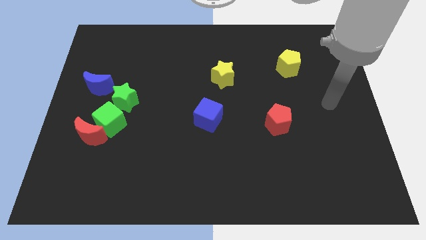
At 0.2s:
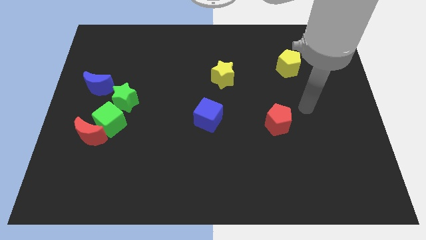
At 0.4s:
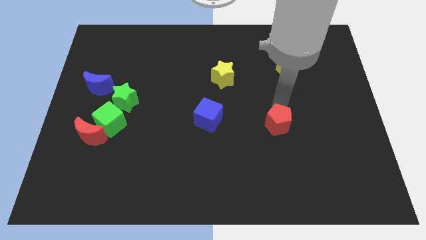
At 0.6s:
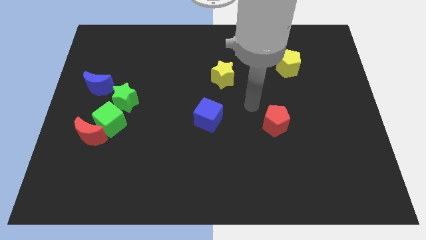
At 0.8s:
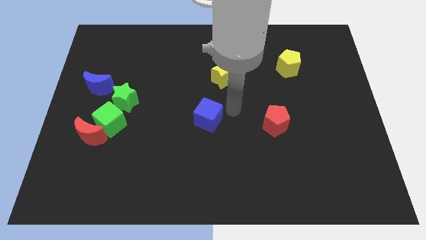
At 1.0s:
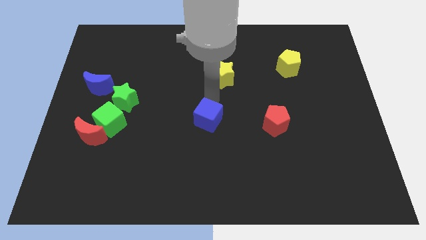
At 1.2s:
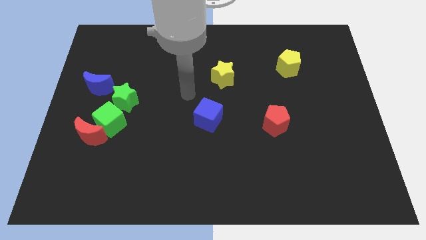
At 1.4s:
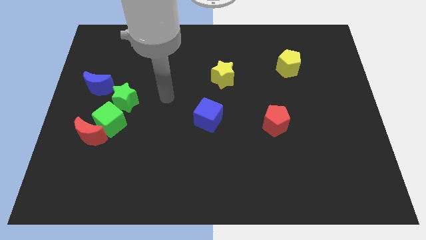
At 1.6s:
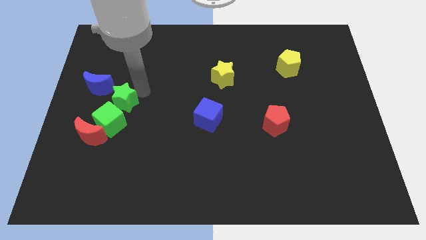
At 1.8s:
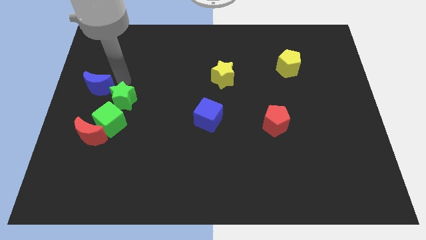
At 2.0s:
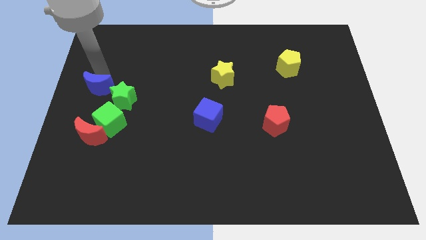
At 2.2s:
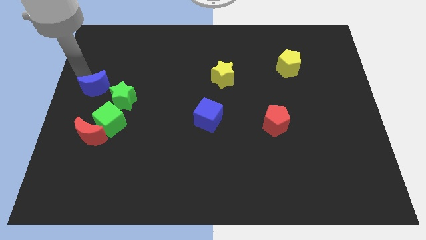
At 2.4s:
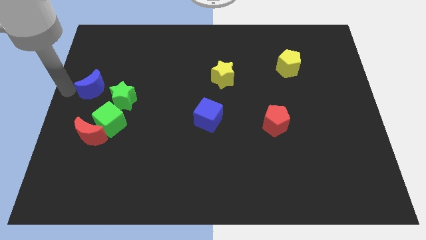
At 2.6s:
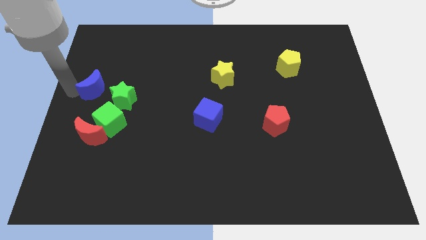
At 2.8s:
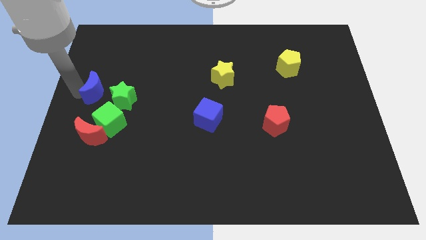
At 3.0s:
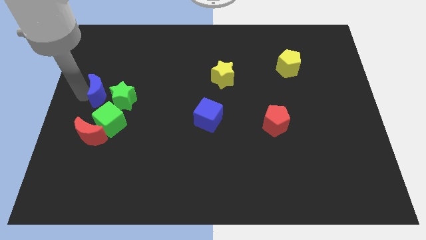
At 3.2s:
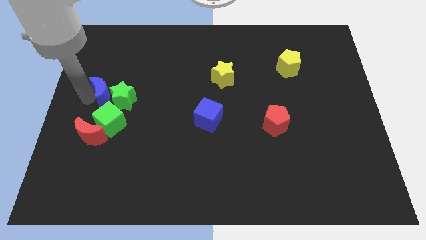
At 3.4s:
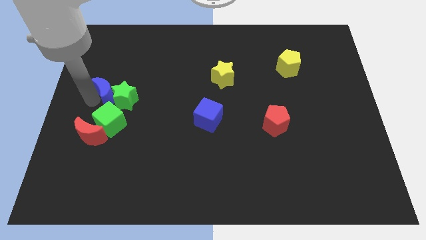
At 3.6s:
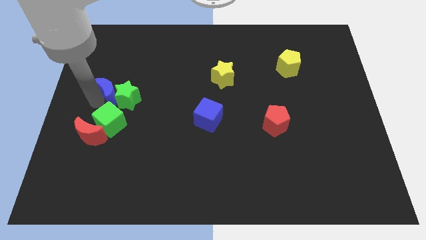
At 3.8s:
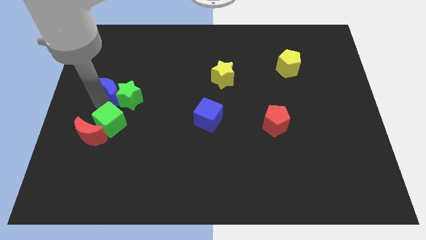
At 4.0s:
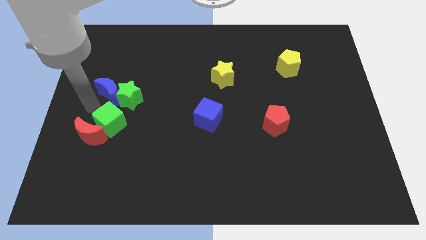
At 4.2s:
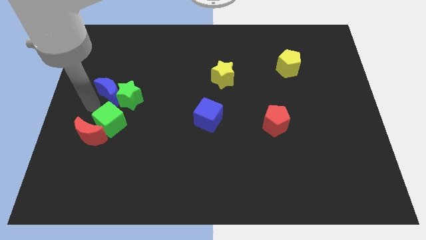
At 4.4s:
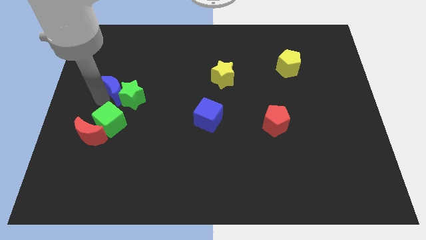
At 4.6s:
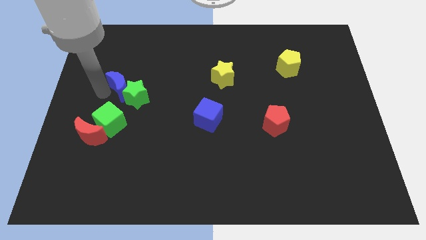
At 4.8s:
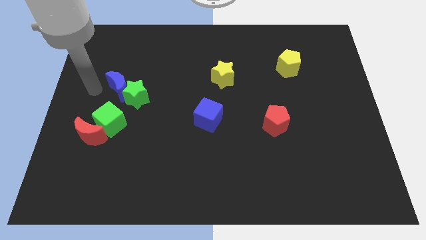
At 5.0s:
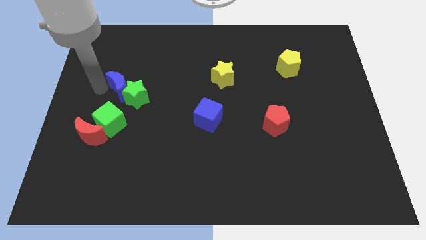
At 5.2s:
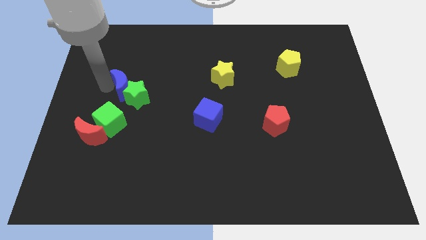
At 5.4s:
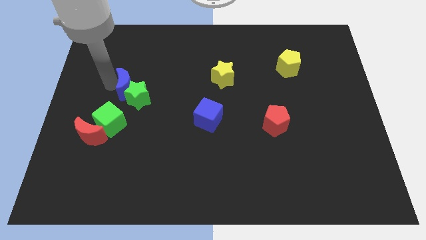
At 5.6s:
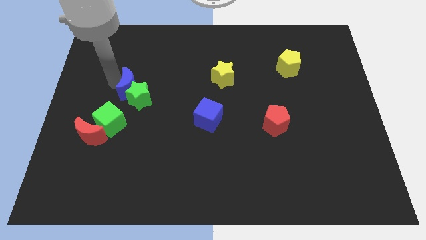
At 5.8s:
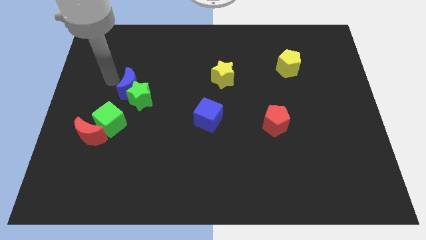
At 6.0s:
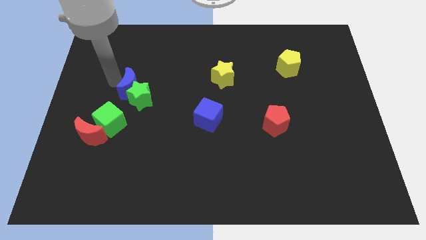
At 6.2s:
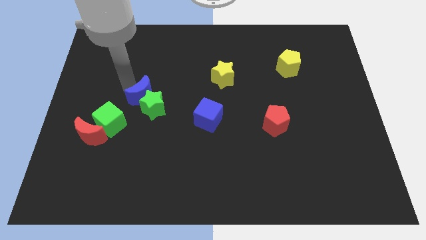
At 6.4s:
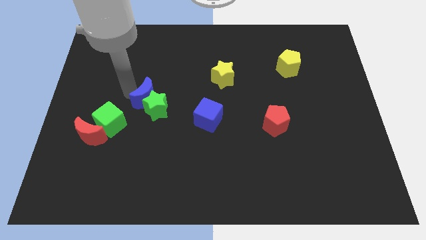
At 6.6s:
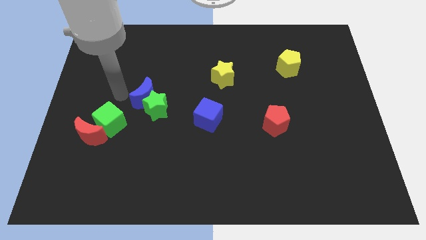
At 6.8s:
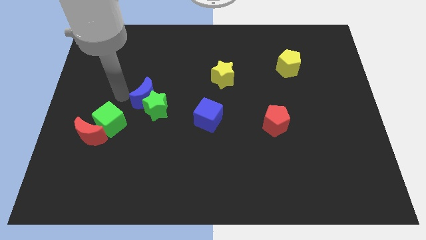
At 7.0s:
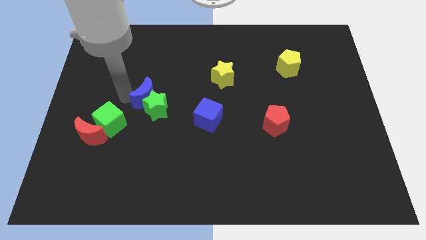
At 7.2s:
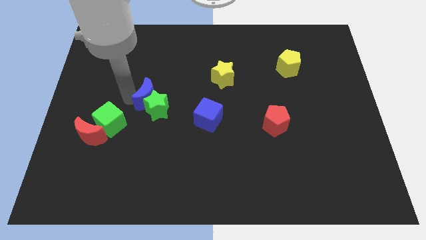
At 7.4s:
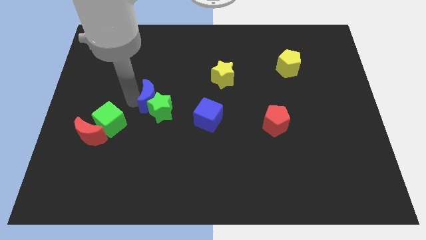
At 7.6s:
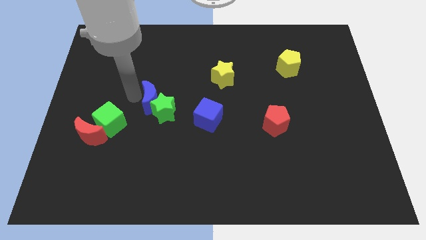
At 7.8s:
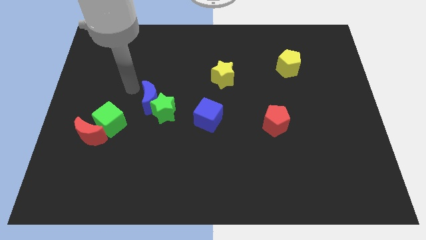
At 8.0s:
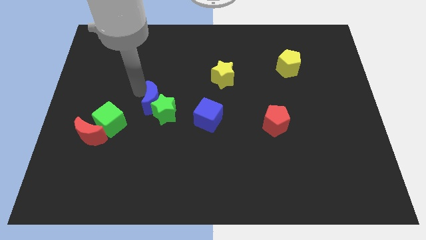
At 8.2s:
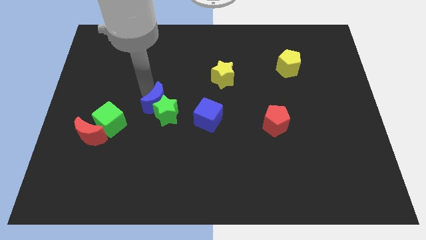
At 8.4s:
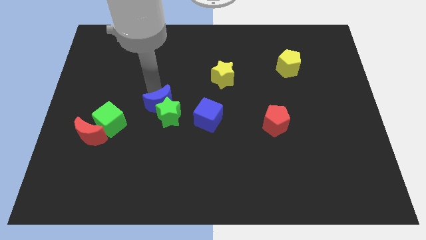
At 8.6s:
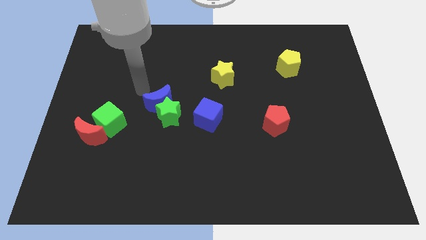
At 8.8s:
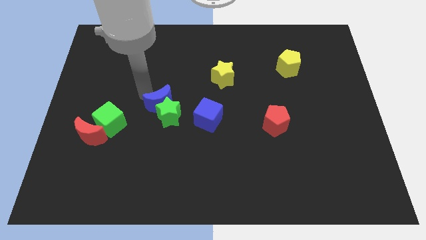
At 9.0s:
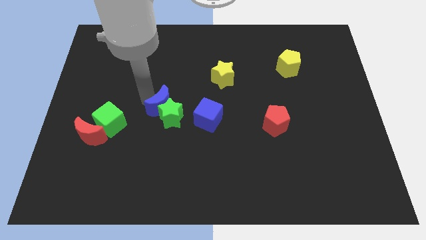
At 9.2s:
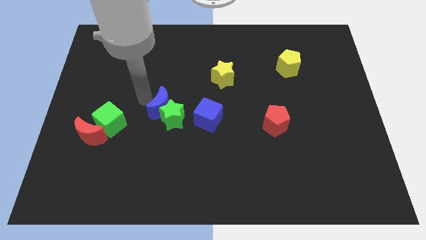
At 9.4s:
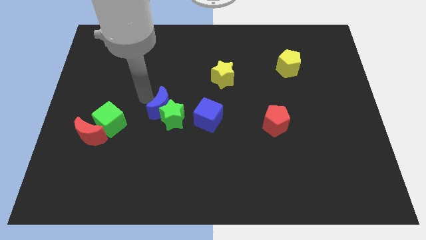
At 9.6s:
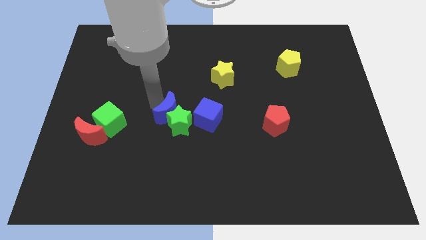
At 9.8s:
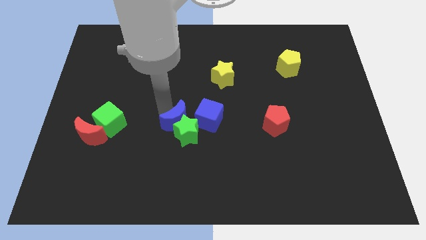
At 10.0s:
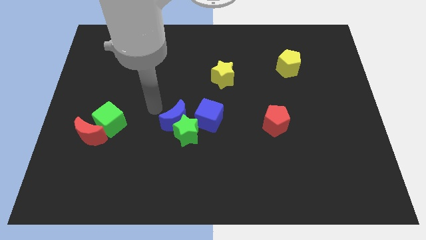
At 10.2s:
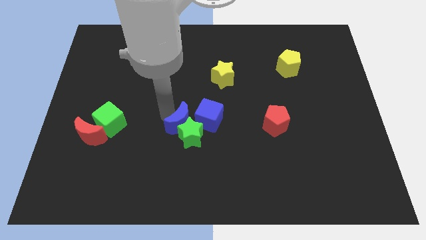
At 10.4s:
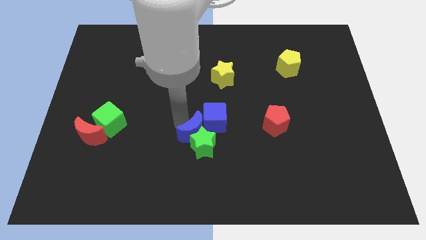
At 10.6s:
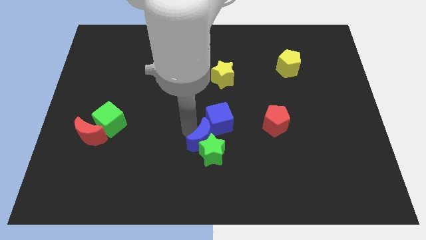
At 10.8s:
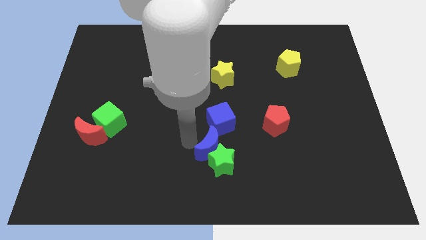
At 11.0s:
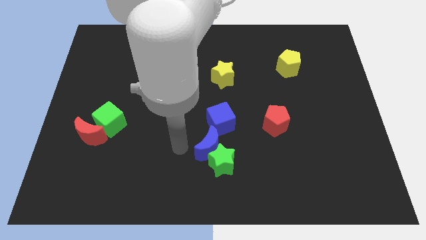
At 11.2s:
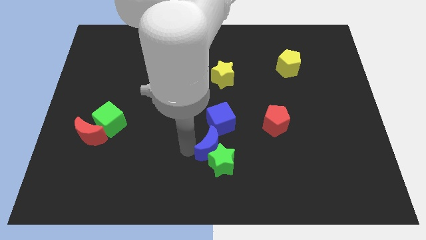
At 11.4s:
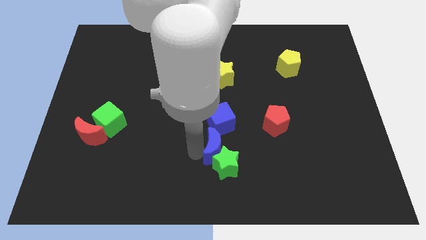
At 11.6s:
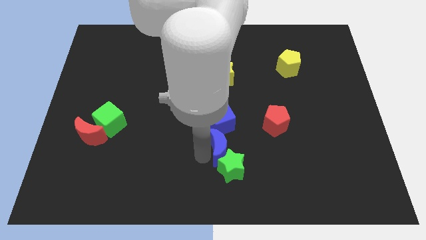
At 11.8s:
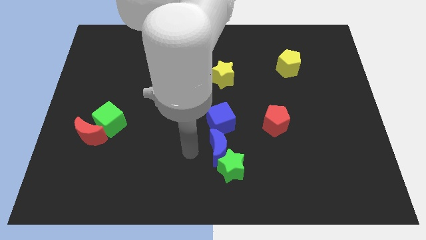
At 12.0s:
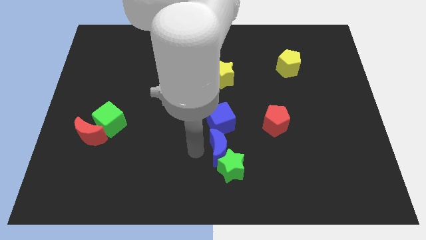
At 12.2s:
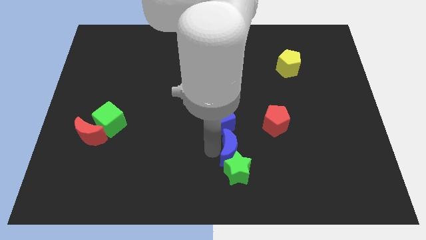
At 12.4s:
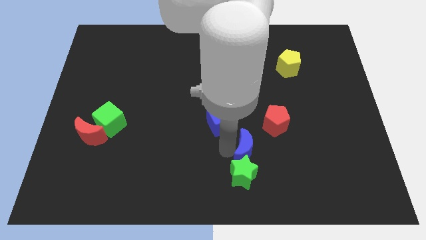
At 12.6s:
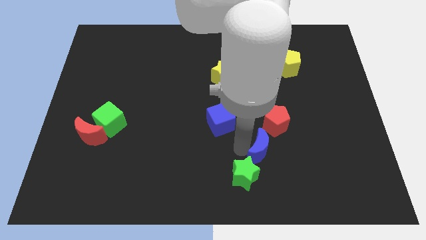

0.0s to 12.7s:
slide the blue moon to the bottom of the red pentagon
